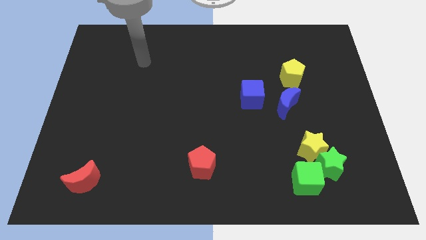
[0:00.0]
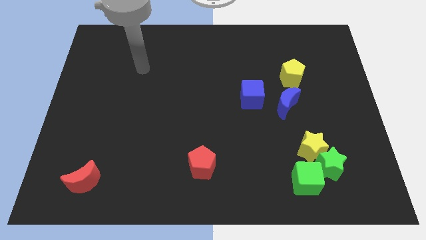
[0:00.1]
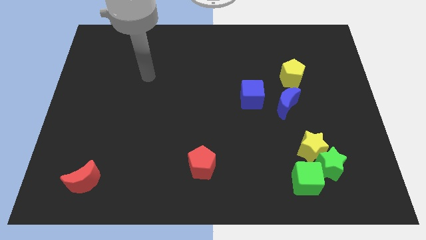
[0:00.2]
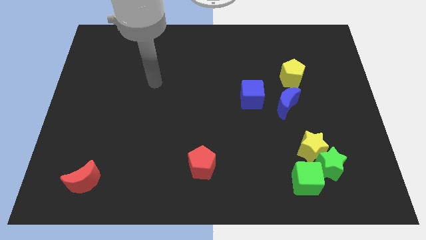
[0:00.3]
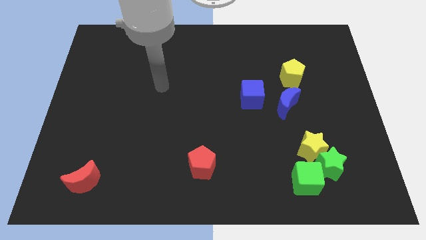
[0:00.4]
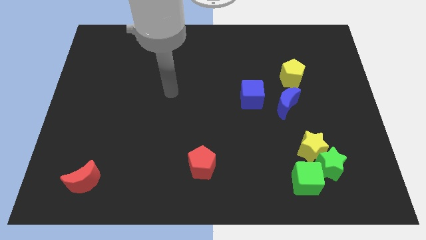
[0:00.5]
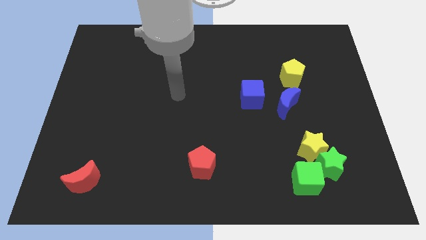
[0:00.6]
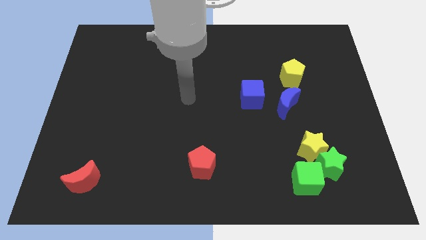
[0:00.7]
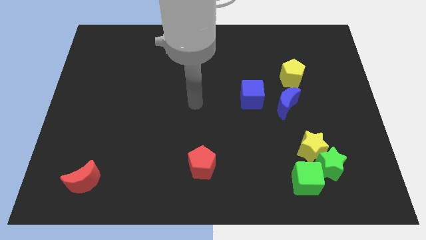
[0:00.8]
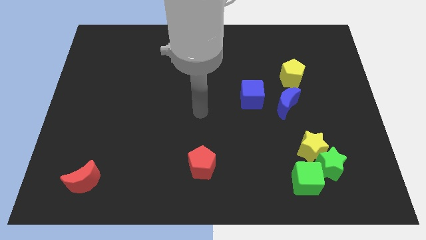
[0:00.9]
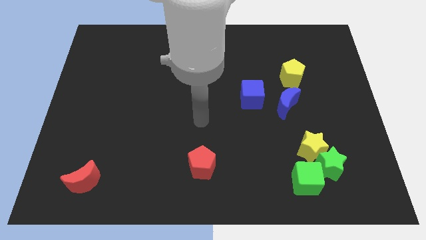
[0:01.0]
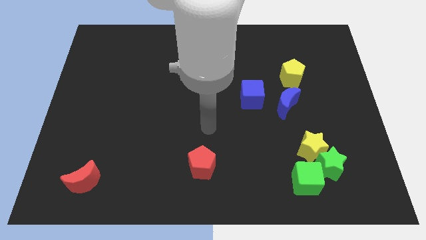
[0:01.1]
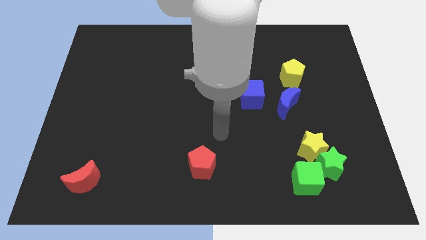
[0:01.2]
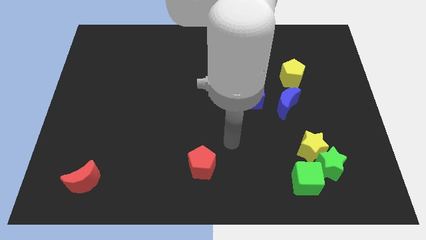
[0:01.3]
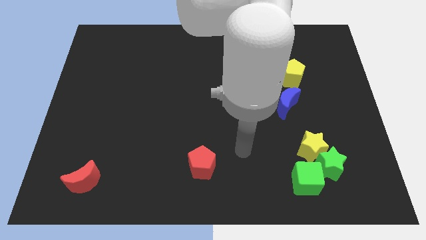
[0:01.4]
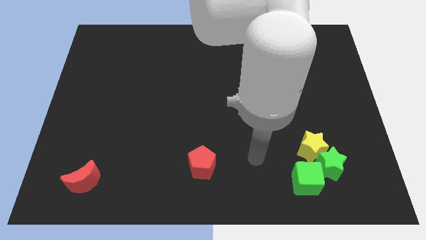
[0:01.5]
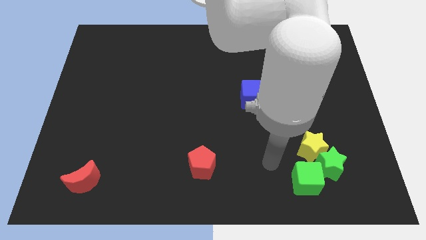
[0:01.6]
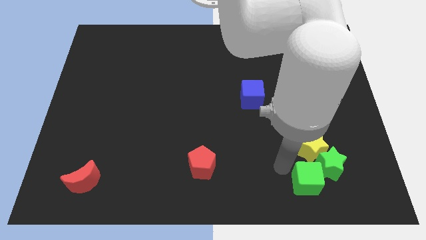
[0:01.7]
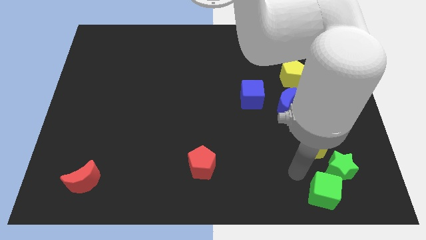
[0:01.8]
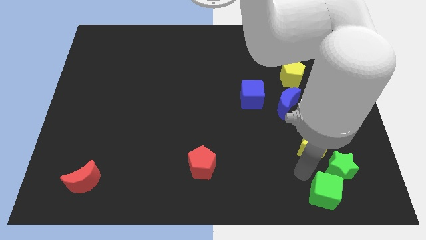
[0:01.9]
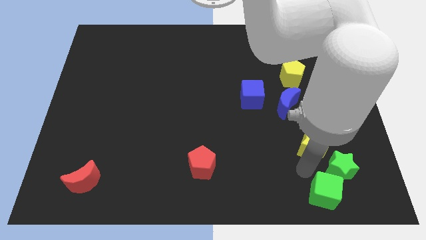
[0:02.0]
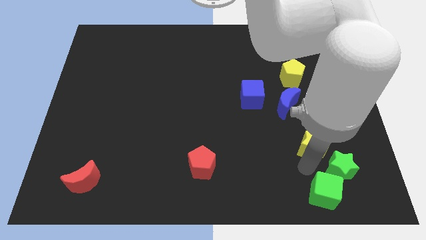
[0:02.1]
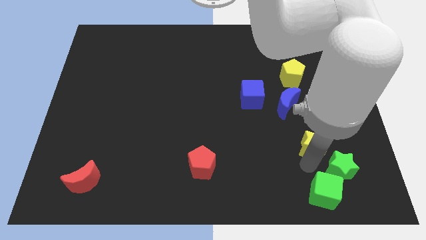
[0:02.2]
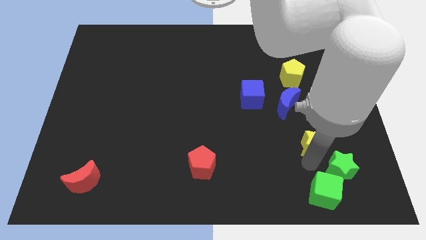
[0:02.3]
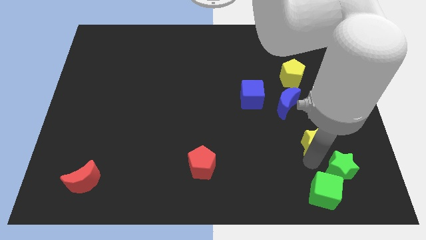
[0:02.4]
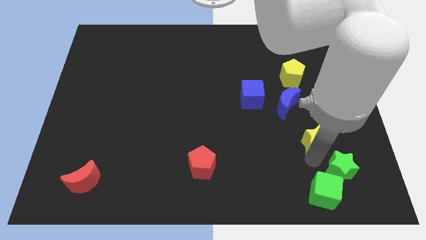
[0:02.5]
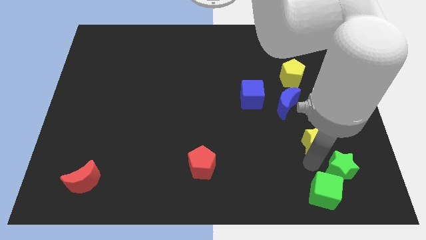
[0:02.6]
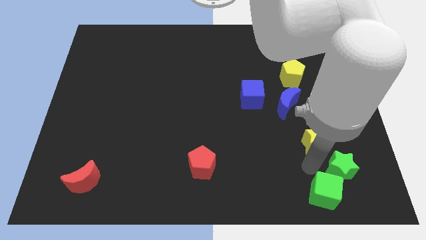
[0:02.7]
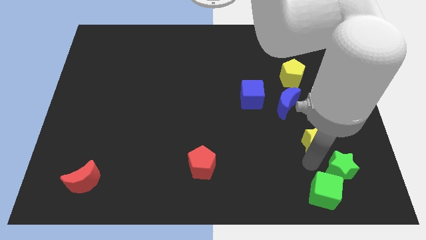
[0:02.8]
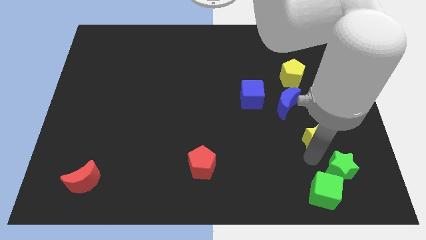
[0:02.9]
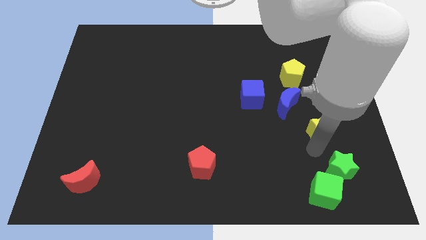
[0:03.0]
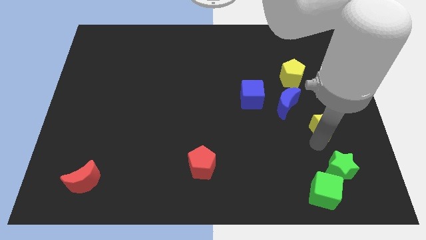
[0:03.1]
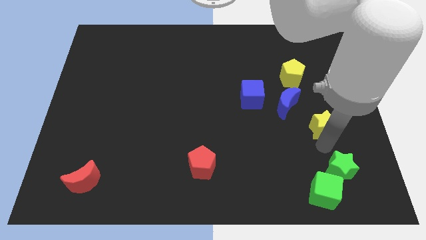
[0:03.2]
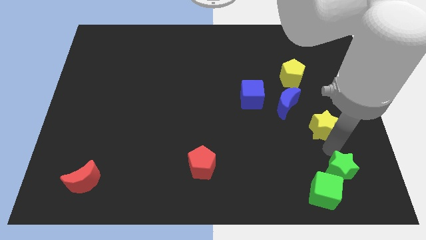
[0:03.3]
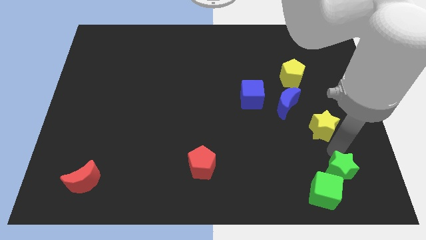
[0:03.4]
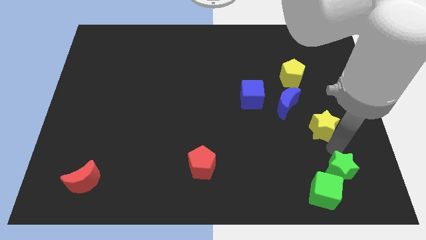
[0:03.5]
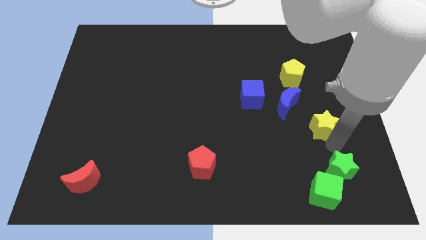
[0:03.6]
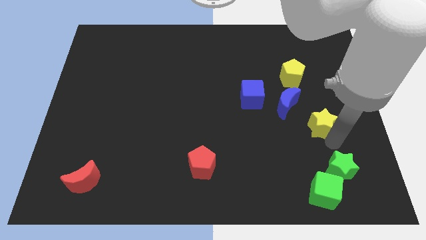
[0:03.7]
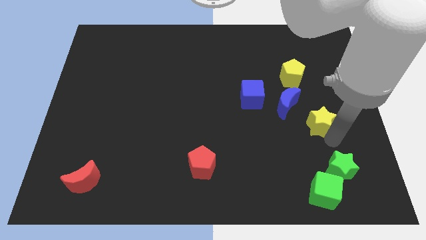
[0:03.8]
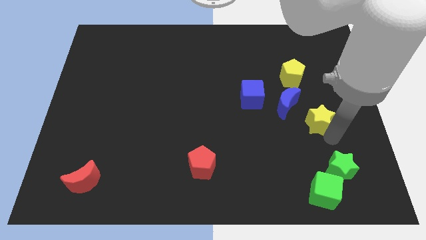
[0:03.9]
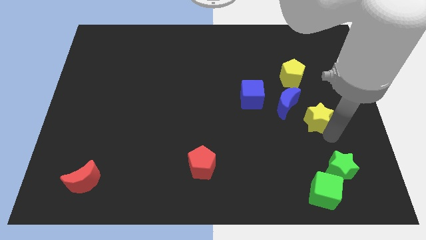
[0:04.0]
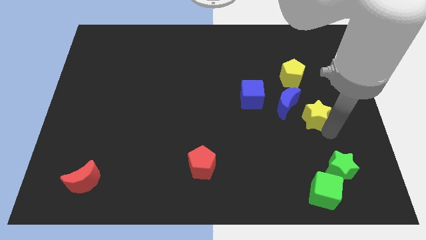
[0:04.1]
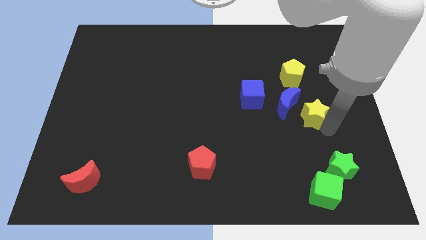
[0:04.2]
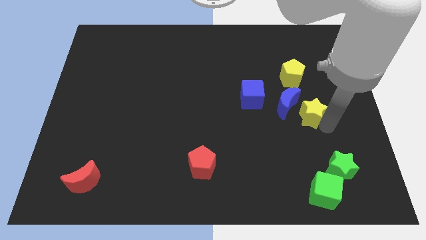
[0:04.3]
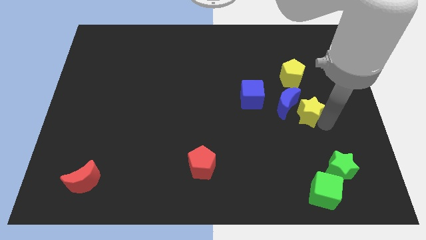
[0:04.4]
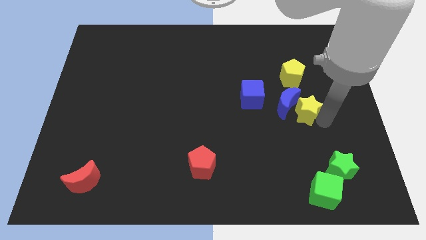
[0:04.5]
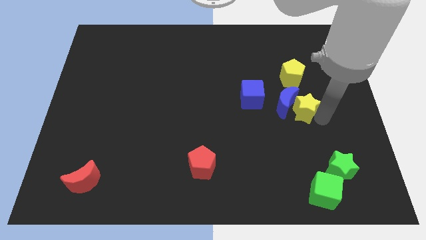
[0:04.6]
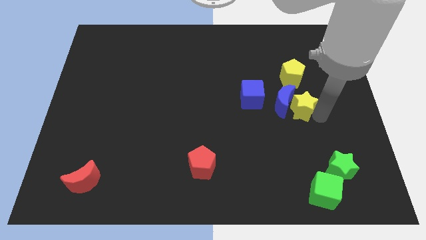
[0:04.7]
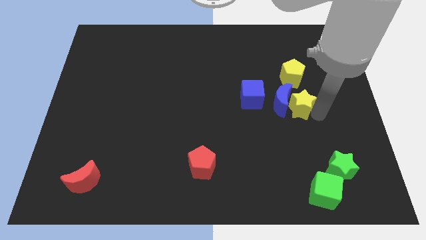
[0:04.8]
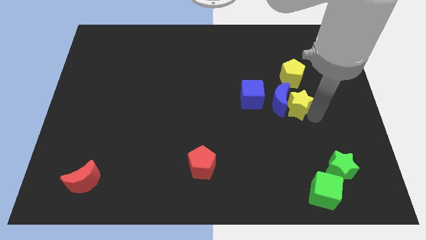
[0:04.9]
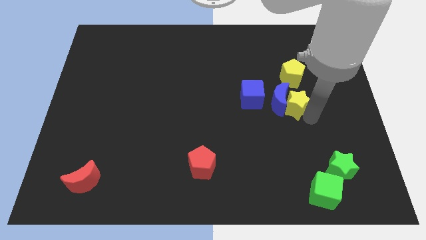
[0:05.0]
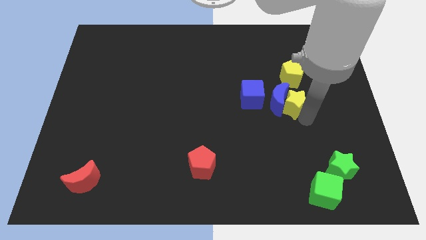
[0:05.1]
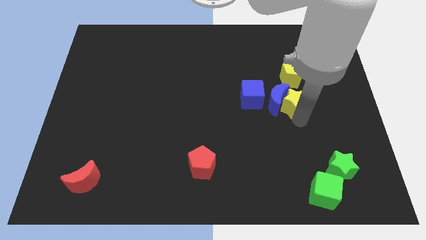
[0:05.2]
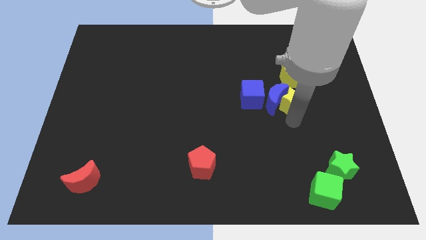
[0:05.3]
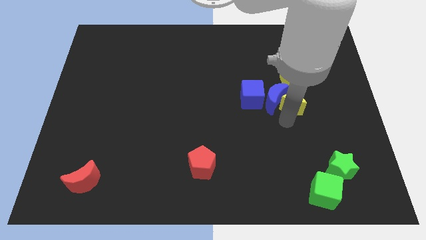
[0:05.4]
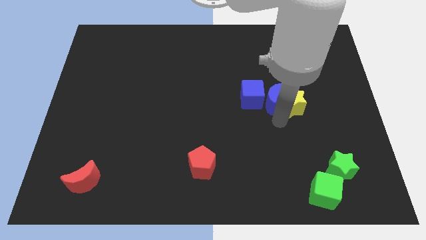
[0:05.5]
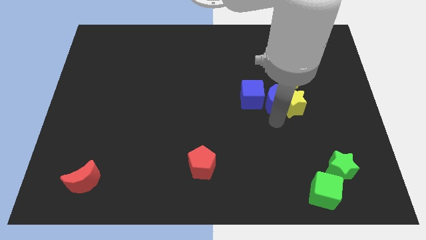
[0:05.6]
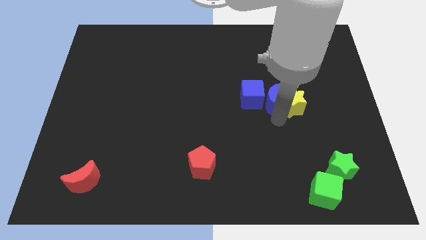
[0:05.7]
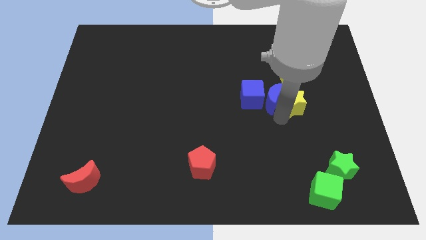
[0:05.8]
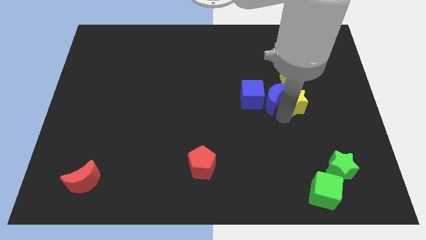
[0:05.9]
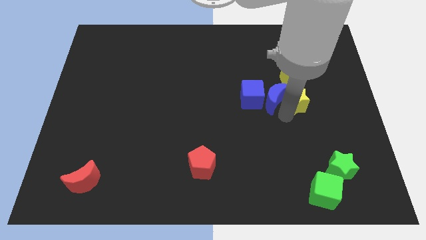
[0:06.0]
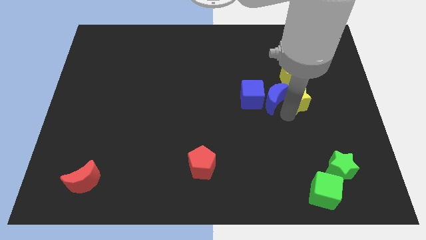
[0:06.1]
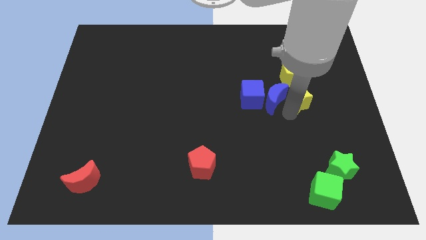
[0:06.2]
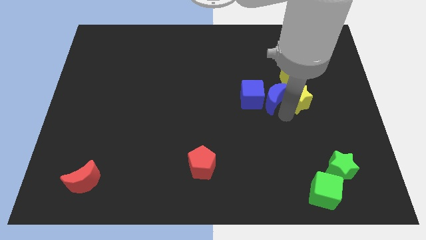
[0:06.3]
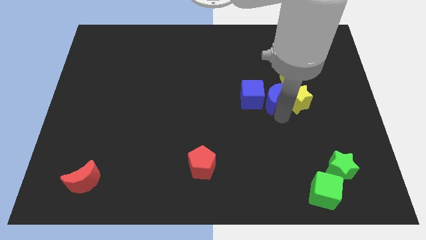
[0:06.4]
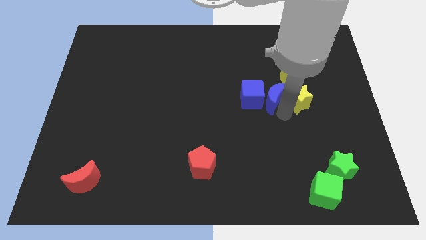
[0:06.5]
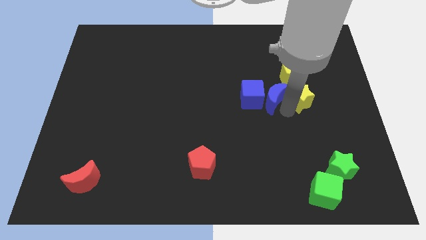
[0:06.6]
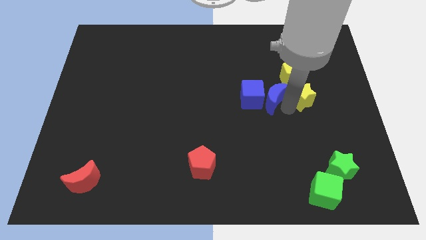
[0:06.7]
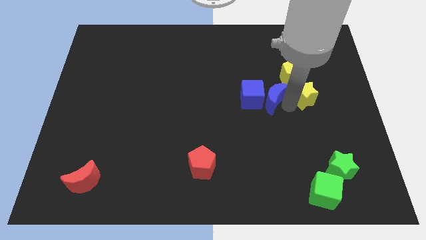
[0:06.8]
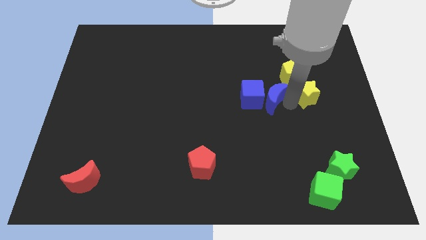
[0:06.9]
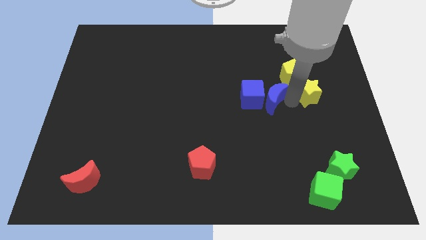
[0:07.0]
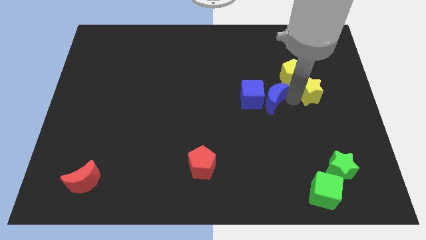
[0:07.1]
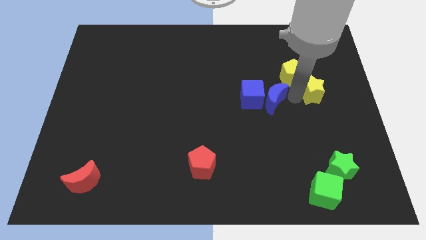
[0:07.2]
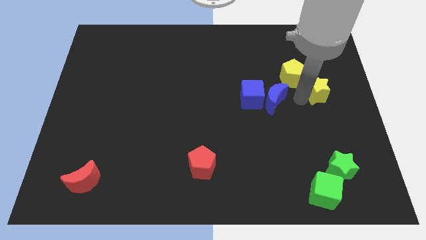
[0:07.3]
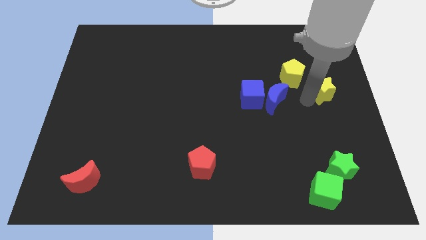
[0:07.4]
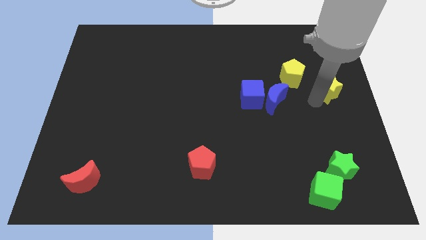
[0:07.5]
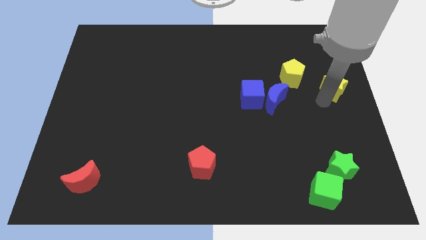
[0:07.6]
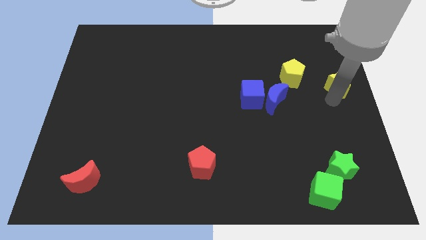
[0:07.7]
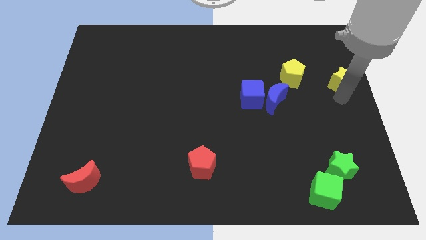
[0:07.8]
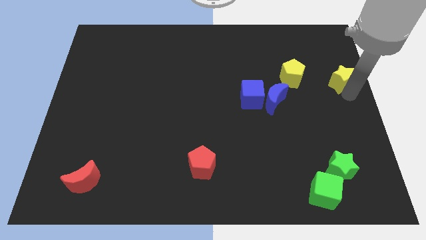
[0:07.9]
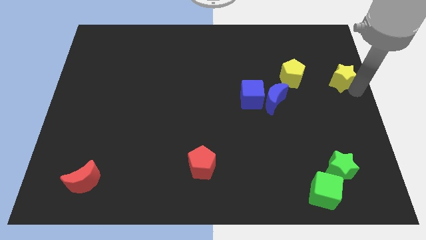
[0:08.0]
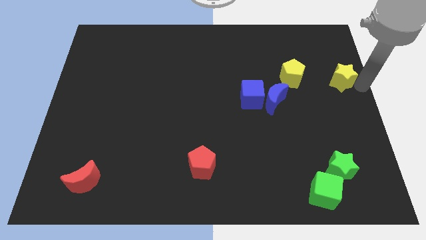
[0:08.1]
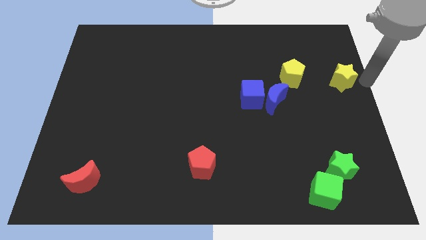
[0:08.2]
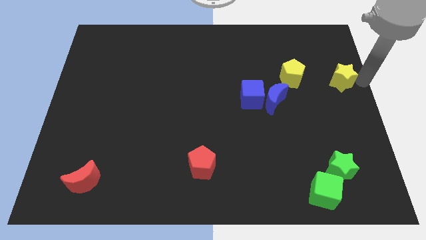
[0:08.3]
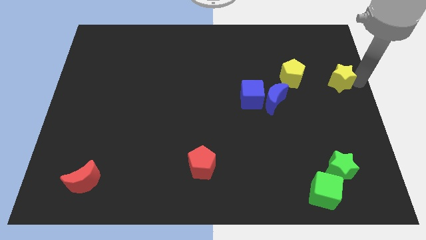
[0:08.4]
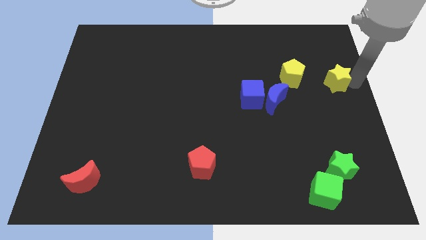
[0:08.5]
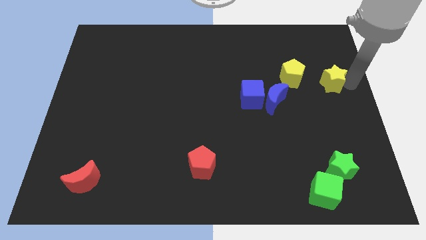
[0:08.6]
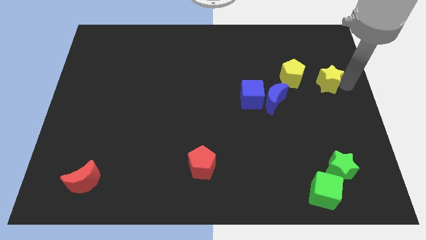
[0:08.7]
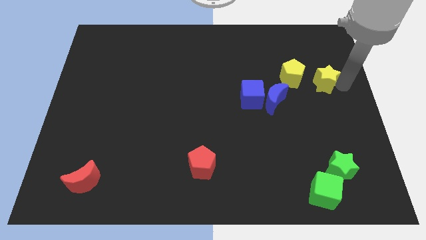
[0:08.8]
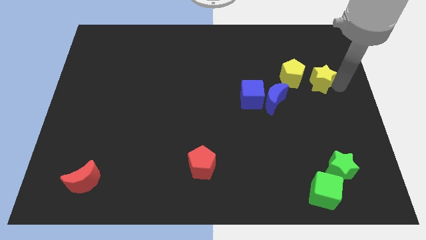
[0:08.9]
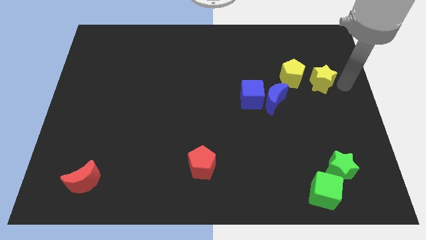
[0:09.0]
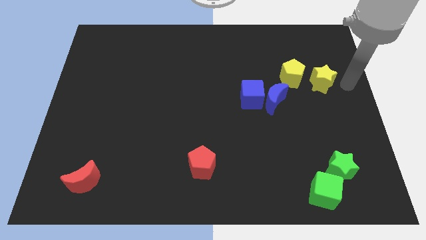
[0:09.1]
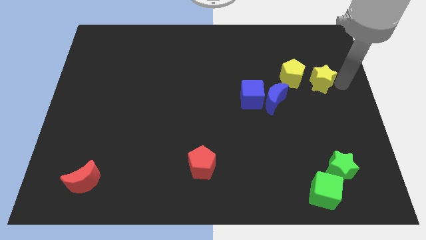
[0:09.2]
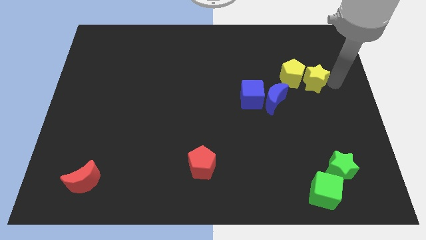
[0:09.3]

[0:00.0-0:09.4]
move the yellow star to the yellow pentagon
